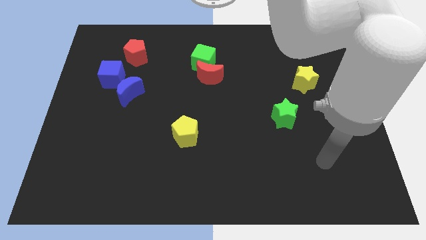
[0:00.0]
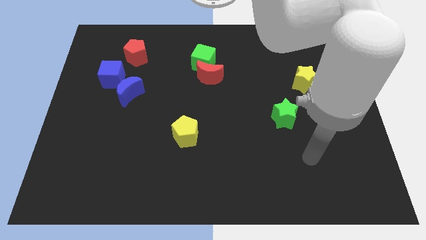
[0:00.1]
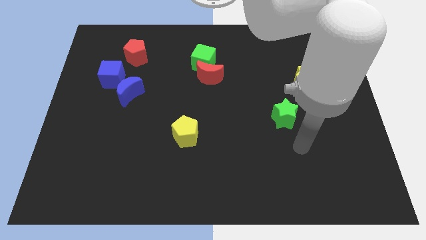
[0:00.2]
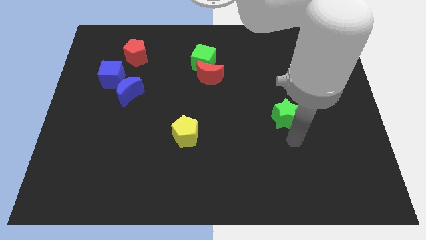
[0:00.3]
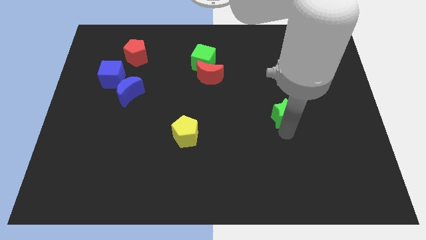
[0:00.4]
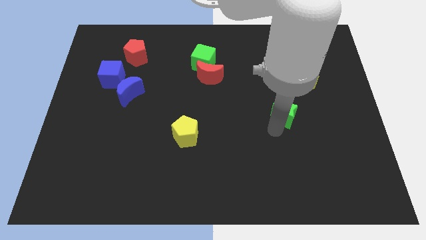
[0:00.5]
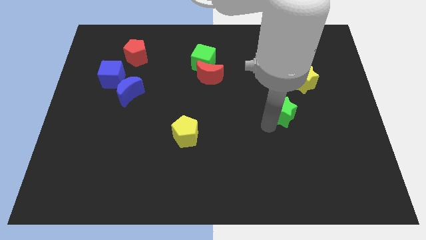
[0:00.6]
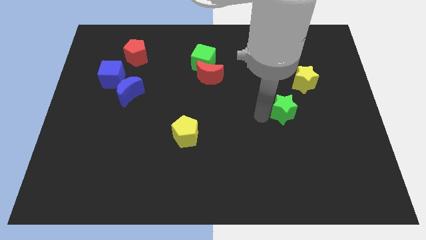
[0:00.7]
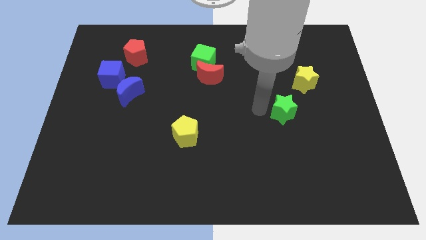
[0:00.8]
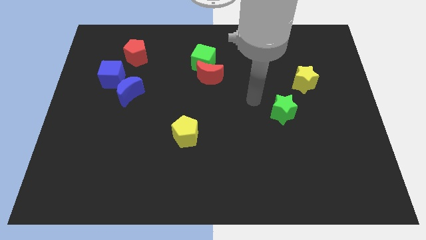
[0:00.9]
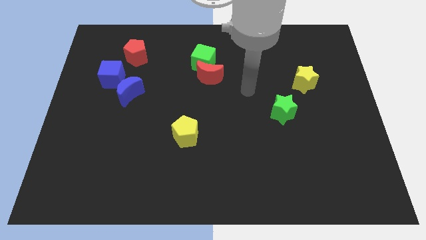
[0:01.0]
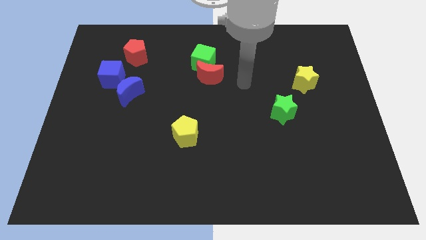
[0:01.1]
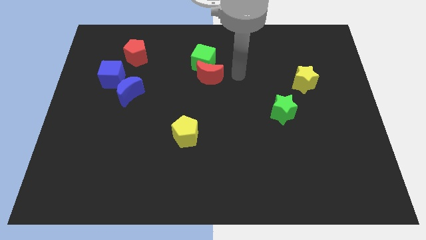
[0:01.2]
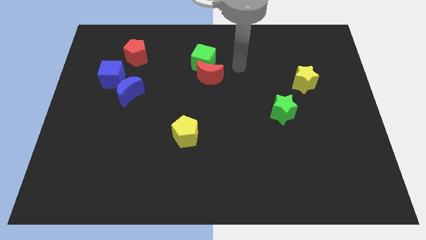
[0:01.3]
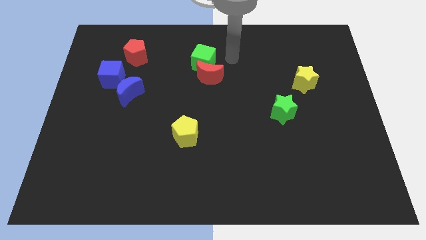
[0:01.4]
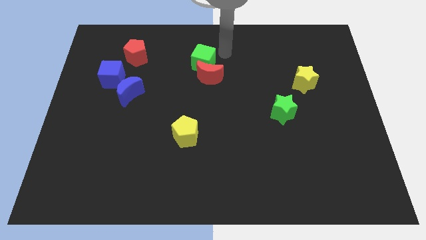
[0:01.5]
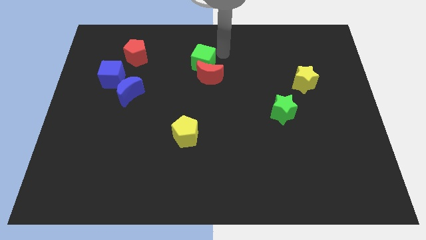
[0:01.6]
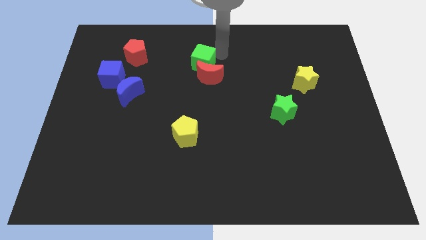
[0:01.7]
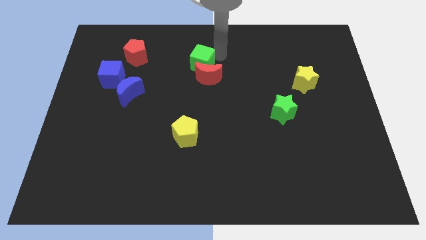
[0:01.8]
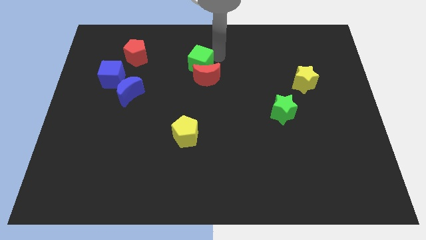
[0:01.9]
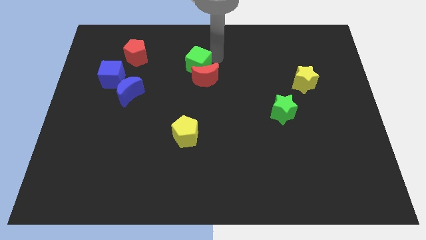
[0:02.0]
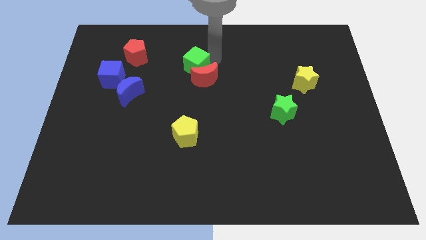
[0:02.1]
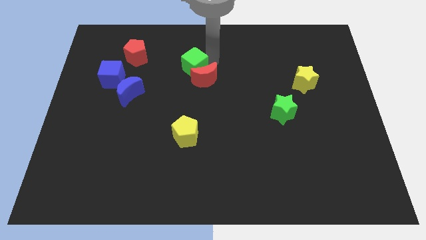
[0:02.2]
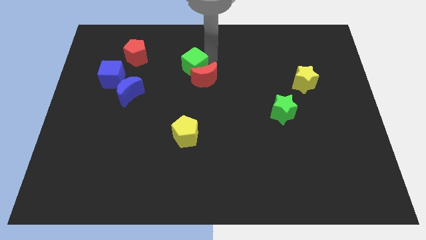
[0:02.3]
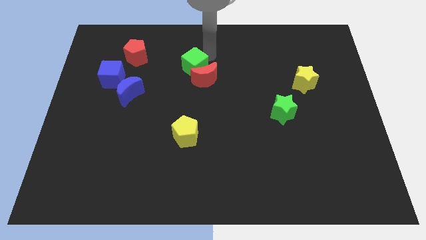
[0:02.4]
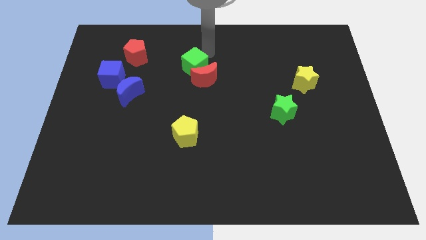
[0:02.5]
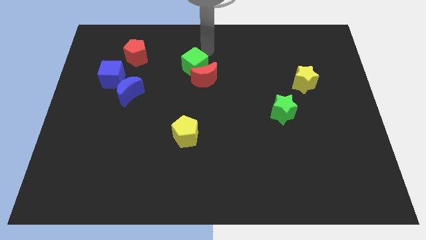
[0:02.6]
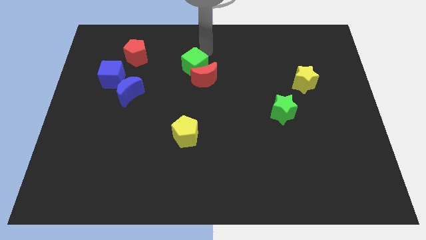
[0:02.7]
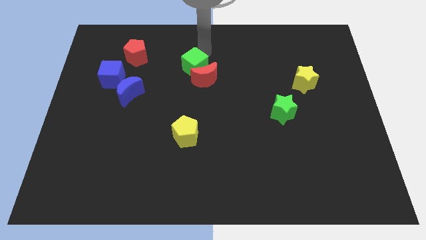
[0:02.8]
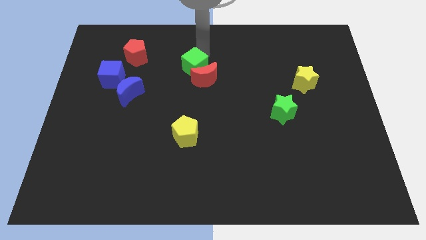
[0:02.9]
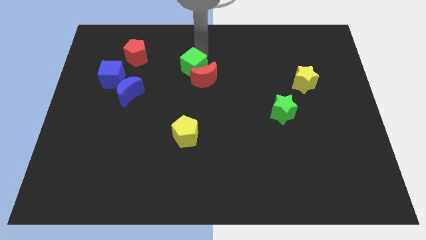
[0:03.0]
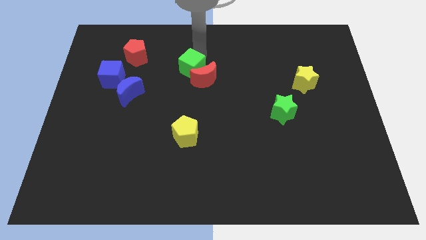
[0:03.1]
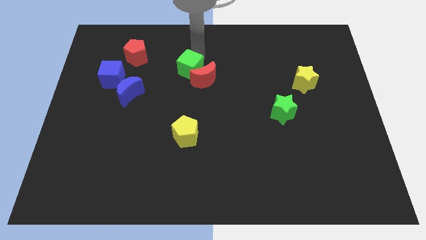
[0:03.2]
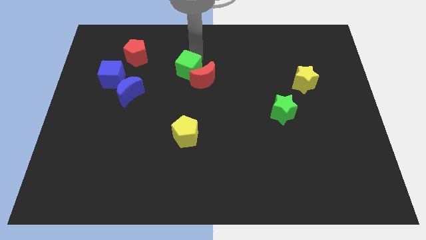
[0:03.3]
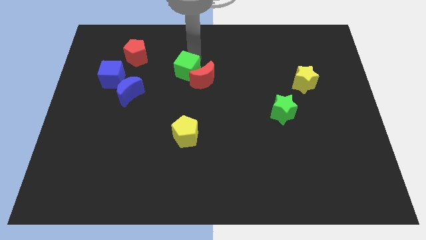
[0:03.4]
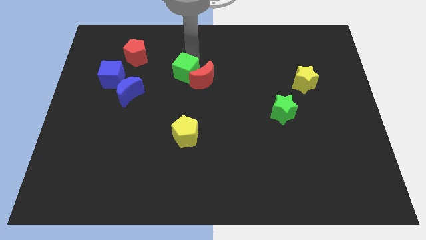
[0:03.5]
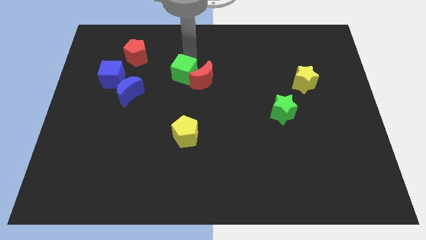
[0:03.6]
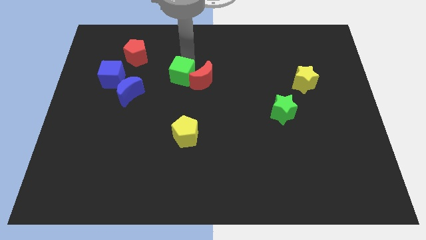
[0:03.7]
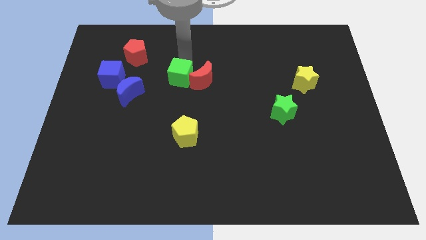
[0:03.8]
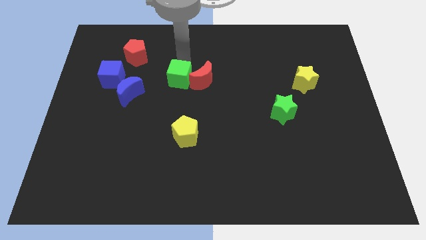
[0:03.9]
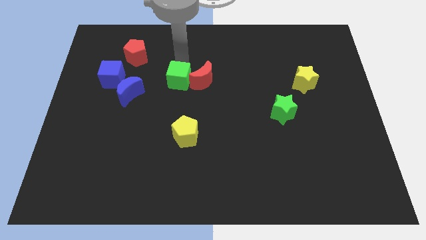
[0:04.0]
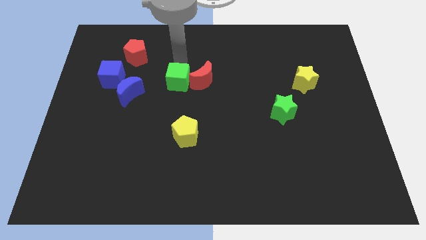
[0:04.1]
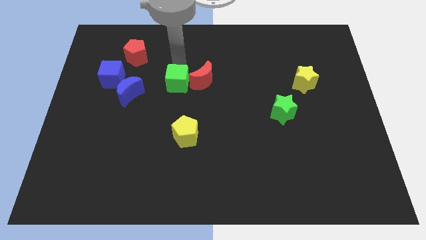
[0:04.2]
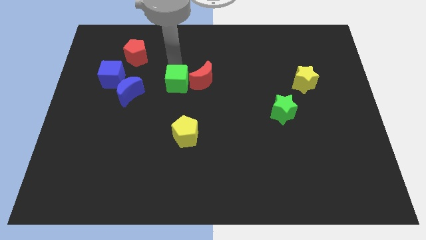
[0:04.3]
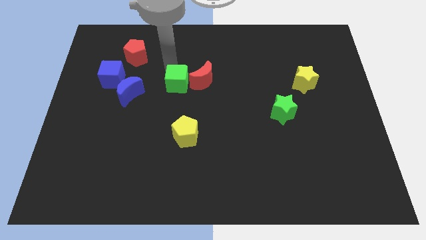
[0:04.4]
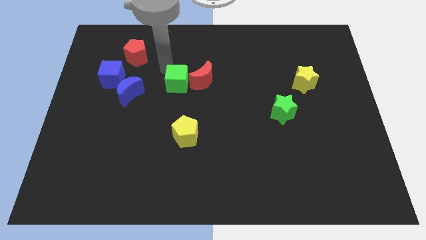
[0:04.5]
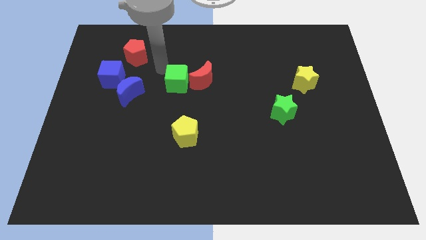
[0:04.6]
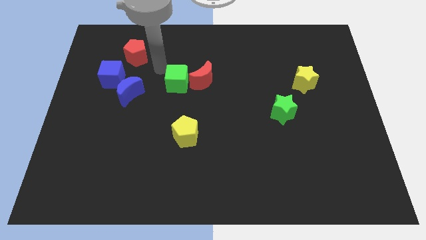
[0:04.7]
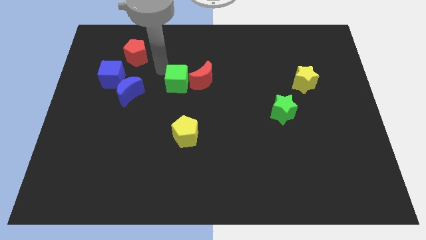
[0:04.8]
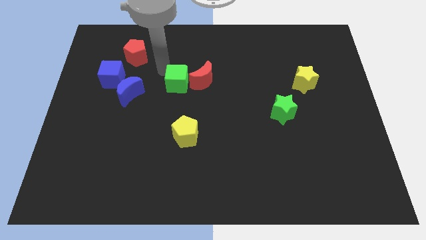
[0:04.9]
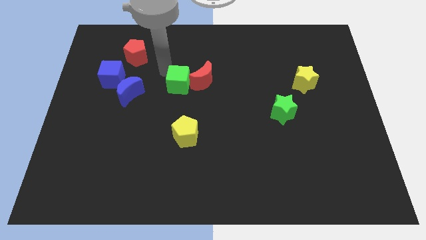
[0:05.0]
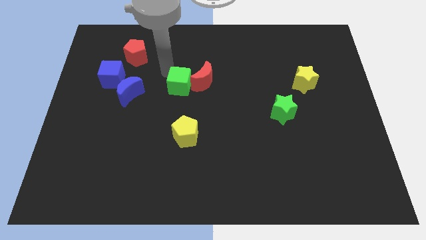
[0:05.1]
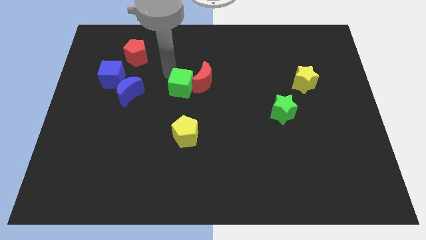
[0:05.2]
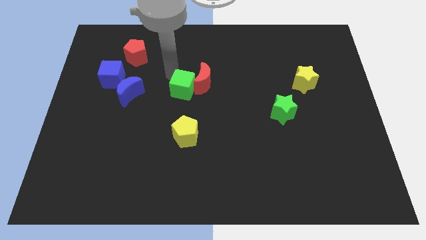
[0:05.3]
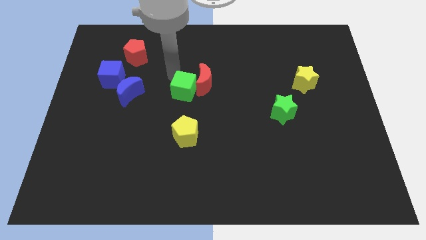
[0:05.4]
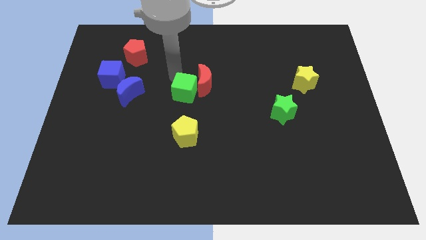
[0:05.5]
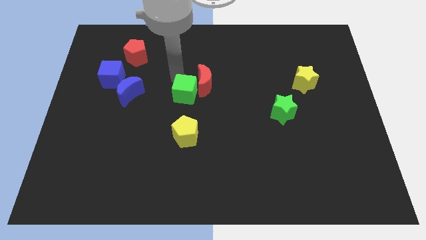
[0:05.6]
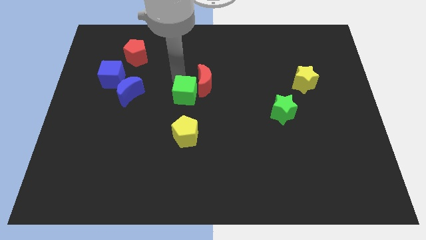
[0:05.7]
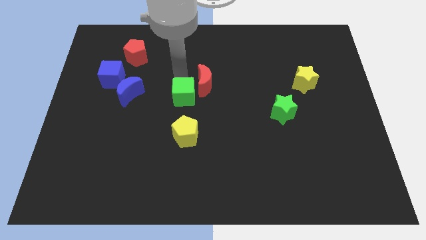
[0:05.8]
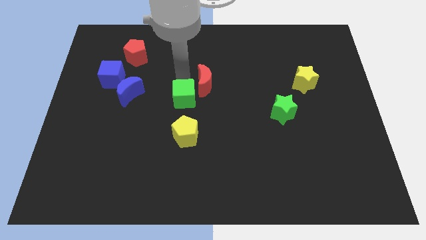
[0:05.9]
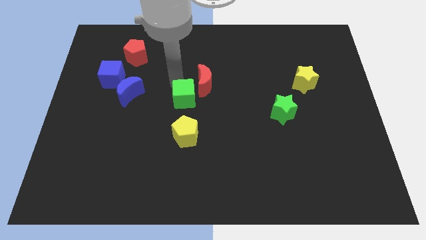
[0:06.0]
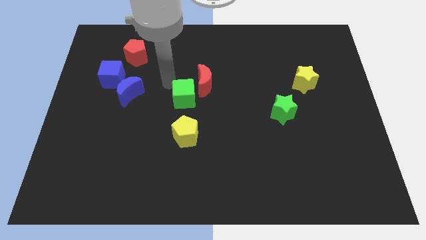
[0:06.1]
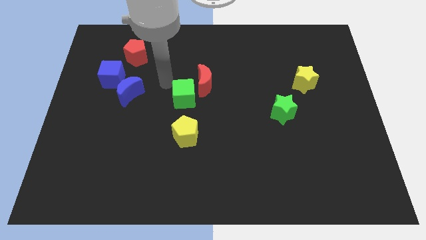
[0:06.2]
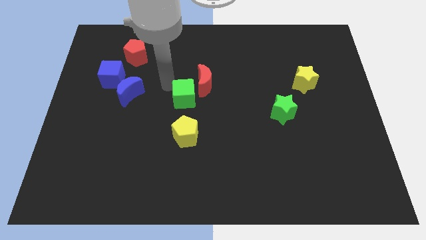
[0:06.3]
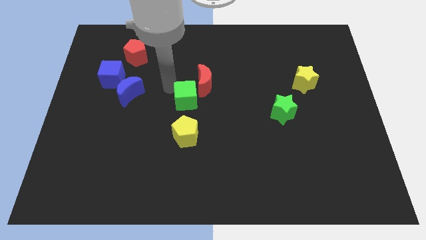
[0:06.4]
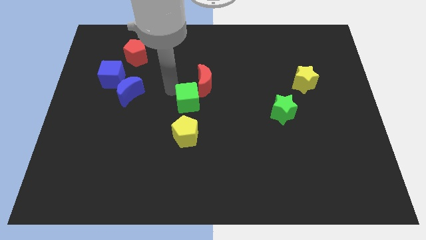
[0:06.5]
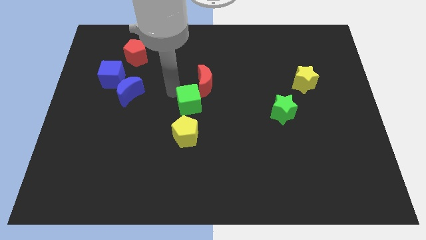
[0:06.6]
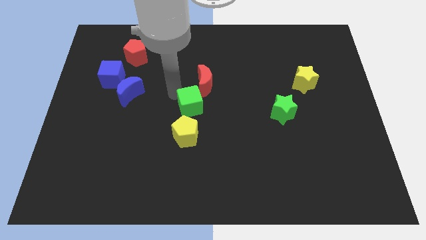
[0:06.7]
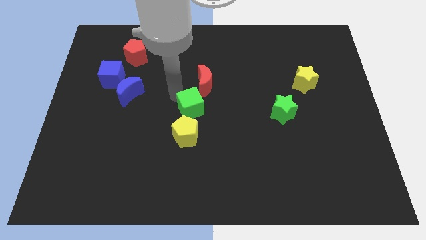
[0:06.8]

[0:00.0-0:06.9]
put the green cube diagonally up and to the right of the yellow pentagon
